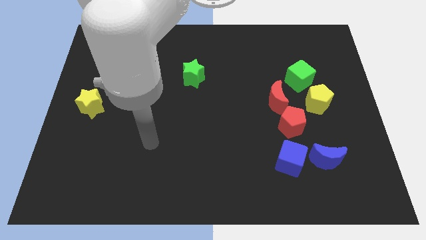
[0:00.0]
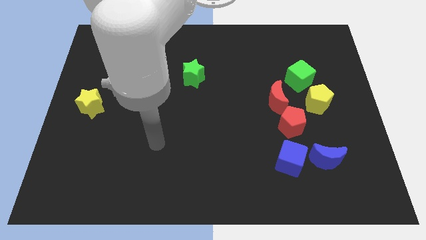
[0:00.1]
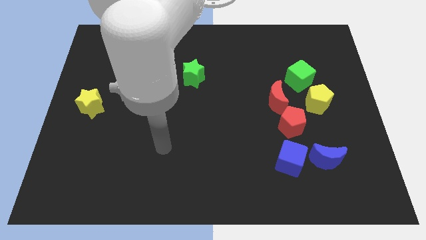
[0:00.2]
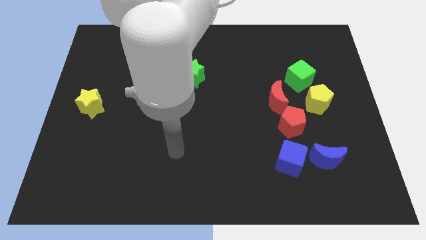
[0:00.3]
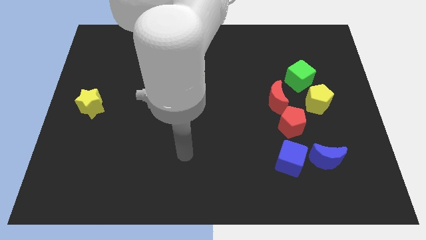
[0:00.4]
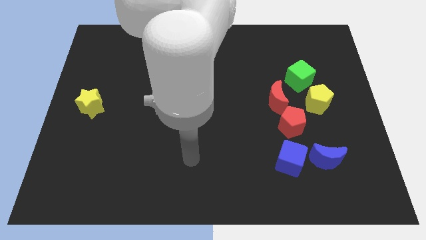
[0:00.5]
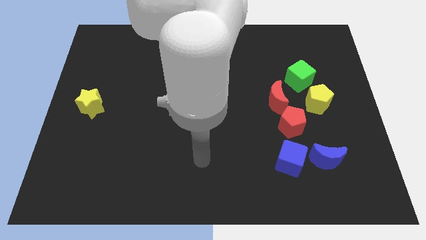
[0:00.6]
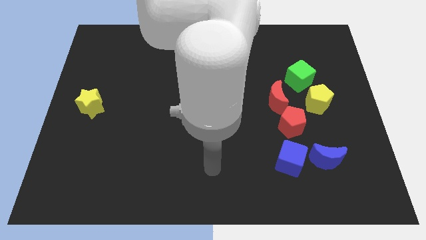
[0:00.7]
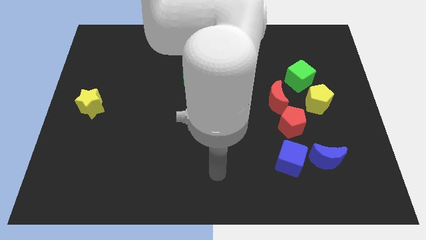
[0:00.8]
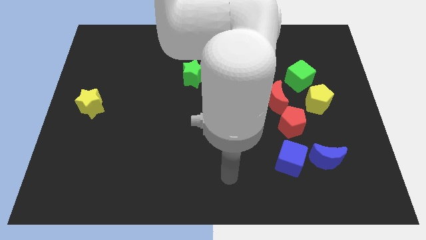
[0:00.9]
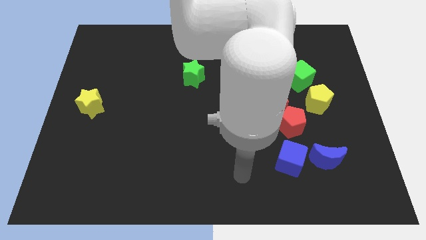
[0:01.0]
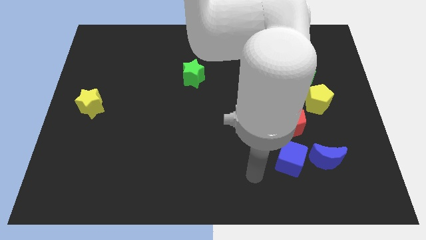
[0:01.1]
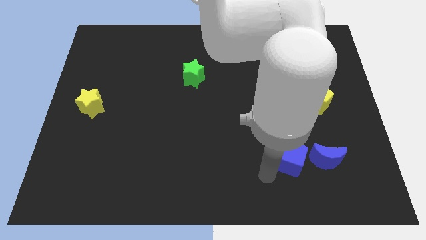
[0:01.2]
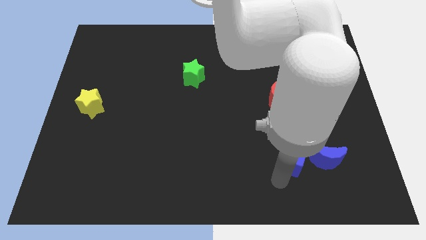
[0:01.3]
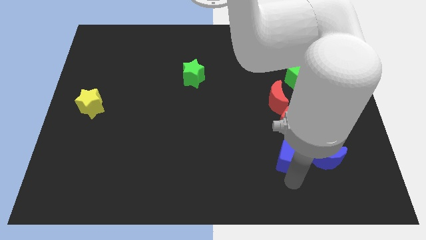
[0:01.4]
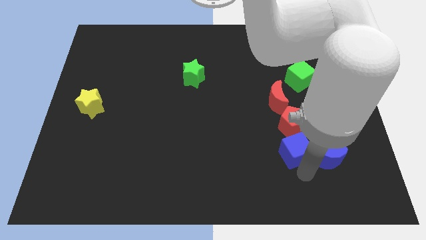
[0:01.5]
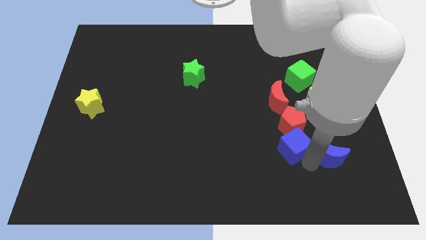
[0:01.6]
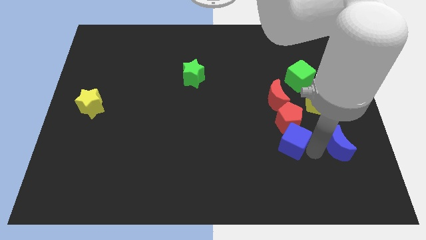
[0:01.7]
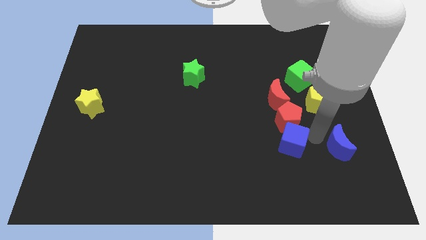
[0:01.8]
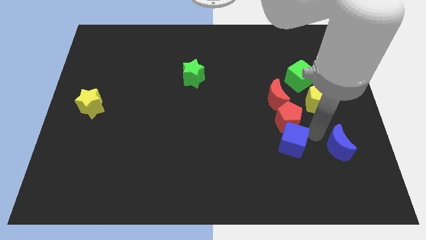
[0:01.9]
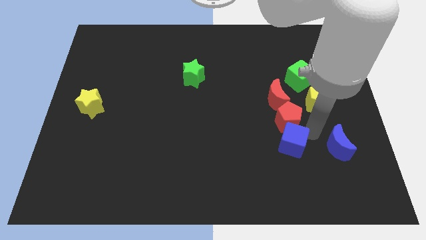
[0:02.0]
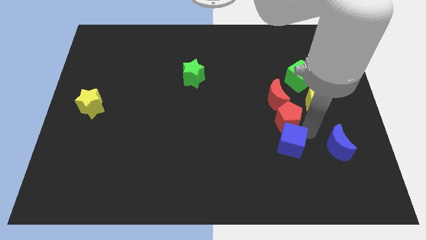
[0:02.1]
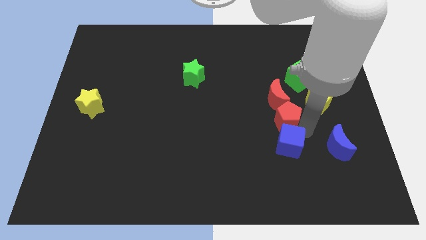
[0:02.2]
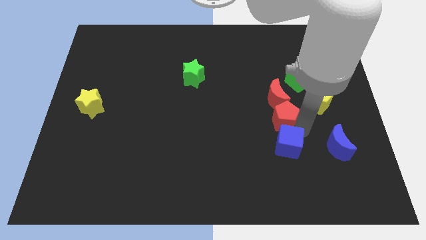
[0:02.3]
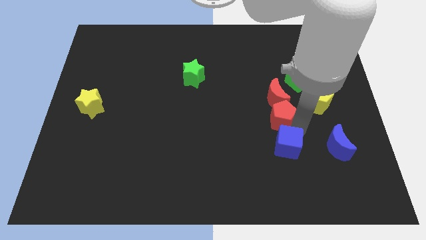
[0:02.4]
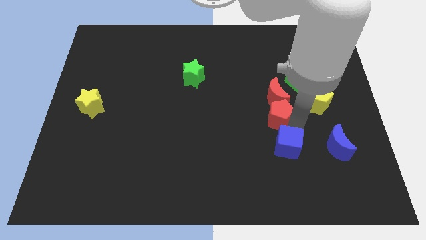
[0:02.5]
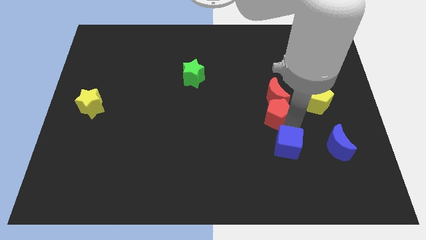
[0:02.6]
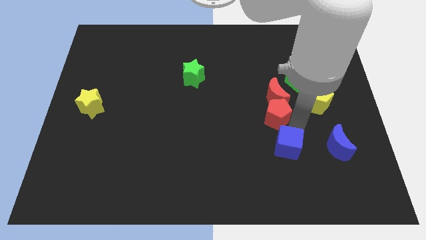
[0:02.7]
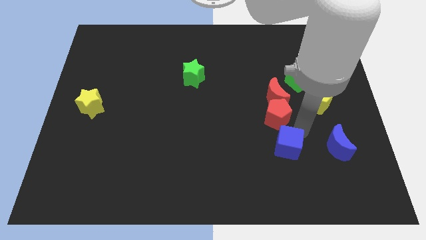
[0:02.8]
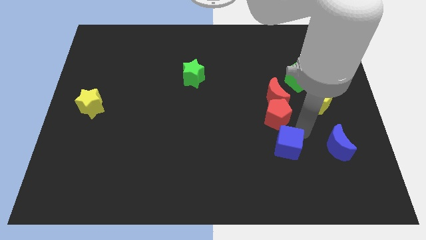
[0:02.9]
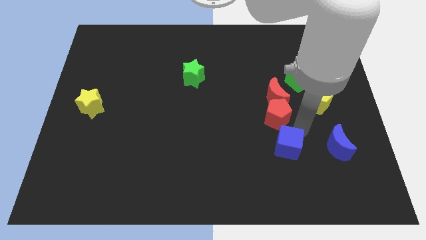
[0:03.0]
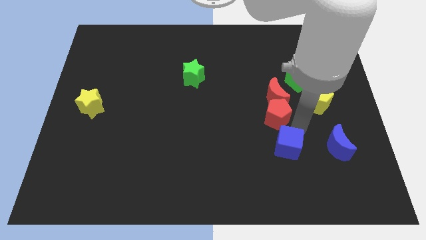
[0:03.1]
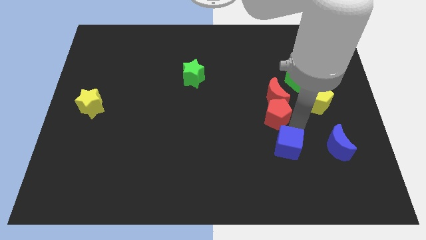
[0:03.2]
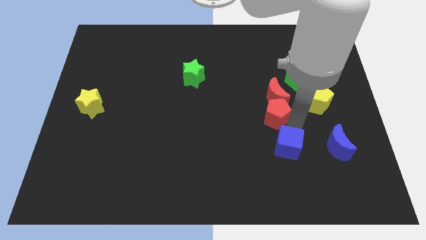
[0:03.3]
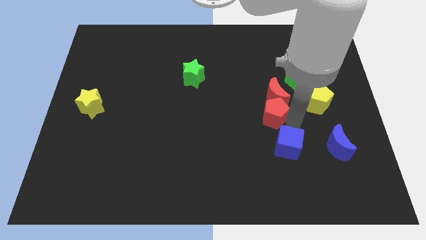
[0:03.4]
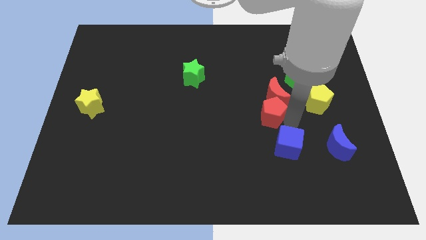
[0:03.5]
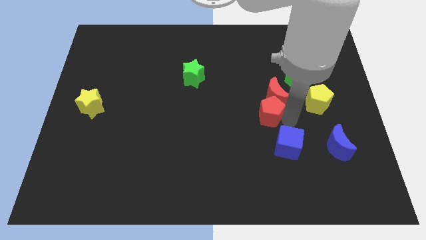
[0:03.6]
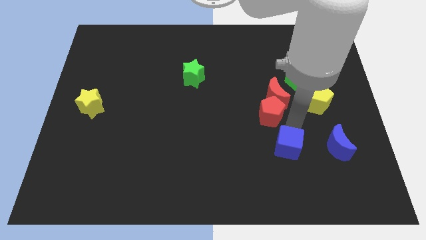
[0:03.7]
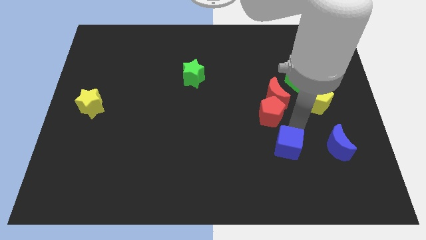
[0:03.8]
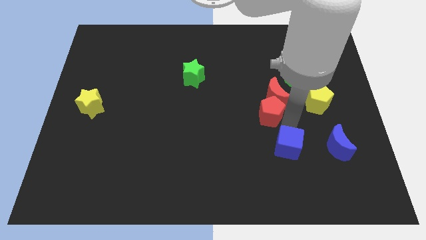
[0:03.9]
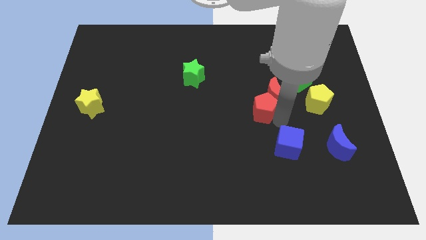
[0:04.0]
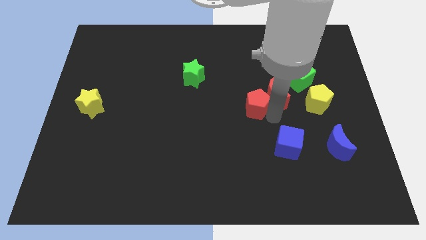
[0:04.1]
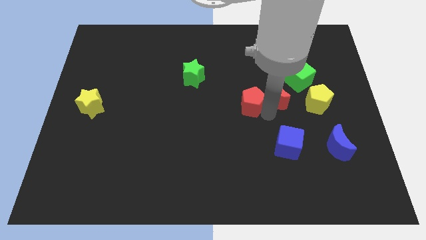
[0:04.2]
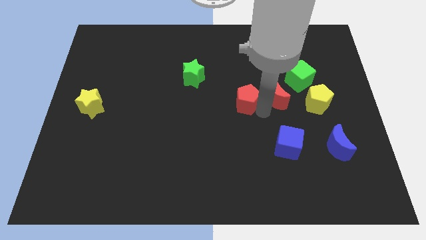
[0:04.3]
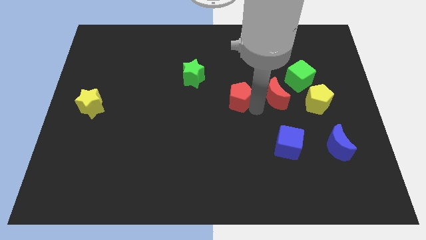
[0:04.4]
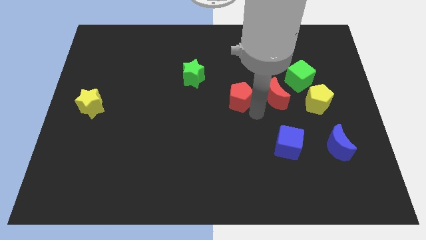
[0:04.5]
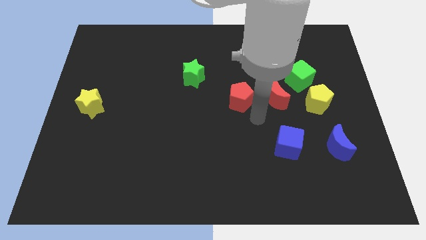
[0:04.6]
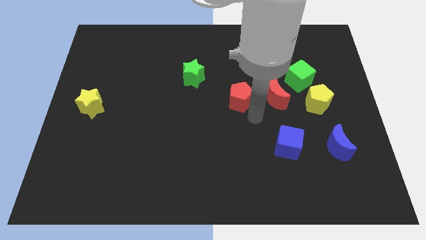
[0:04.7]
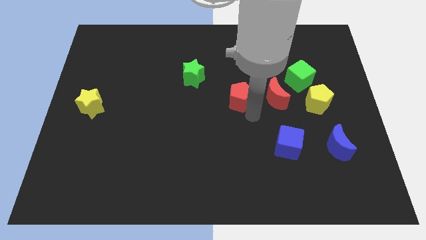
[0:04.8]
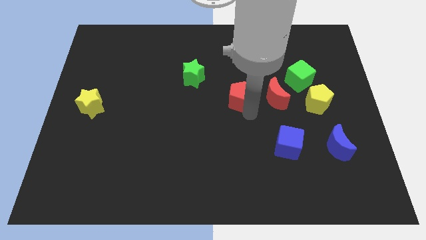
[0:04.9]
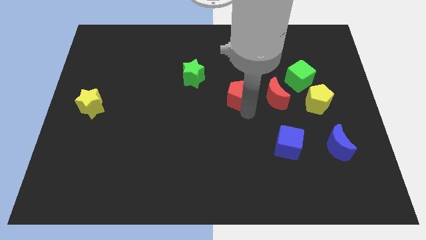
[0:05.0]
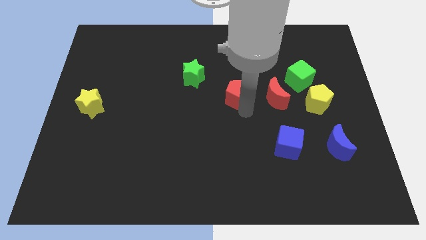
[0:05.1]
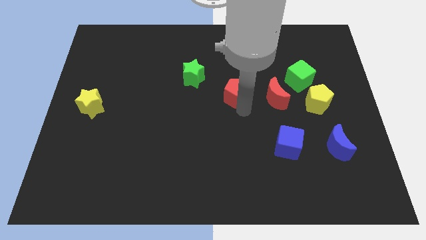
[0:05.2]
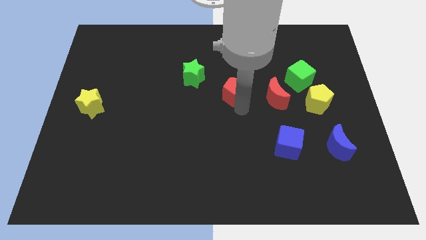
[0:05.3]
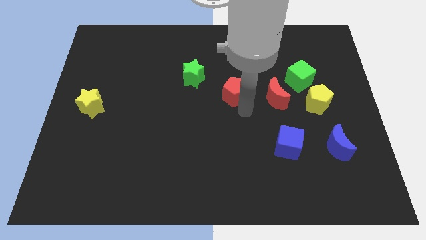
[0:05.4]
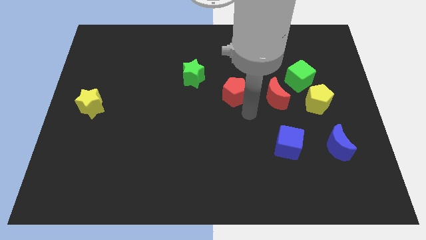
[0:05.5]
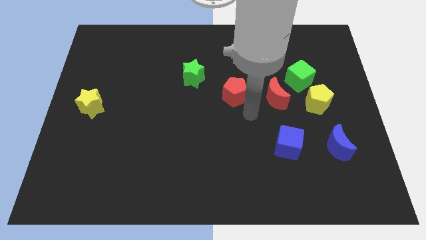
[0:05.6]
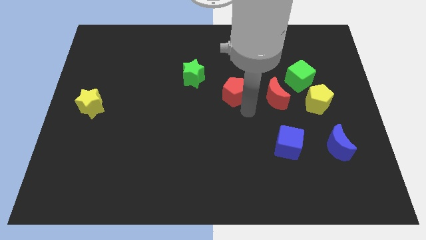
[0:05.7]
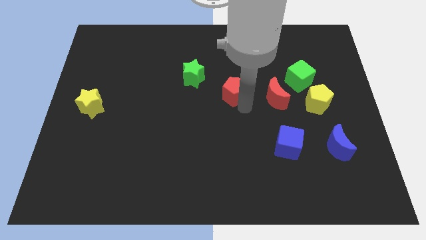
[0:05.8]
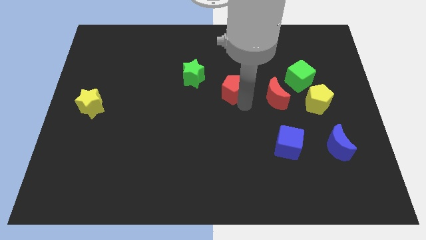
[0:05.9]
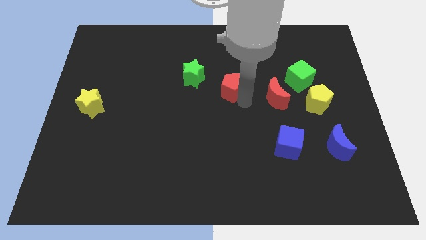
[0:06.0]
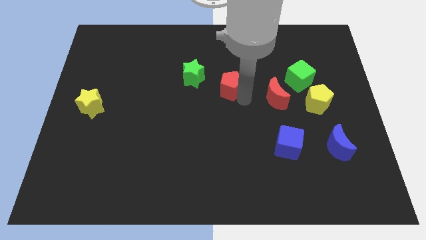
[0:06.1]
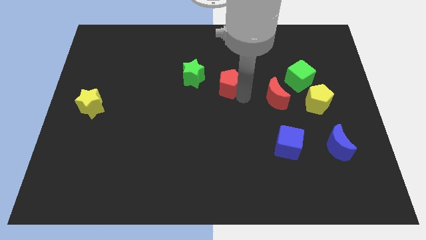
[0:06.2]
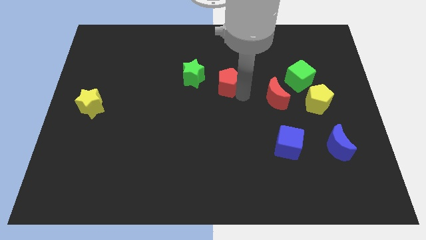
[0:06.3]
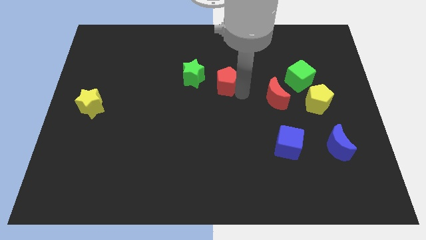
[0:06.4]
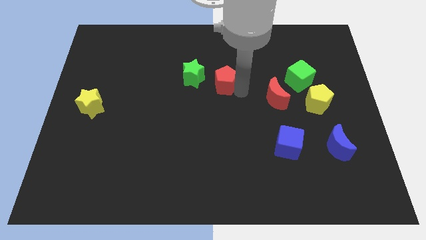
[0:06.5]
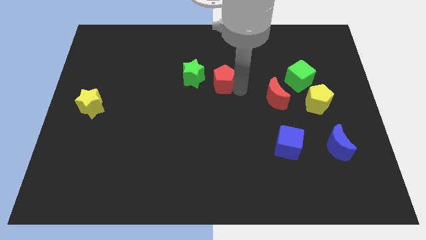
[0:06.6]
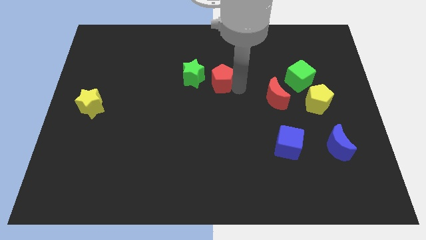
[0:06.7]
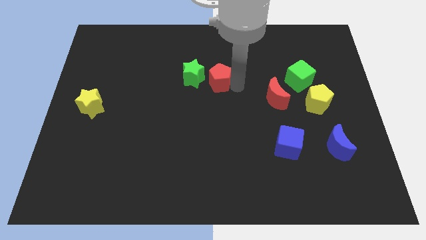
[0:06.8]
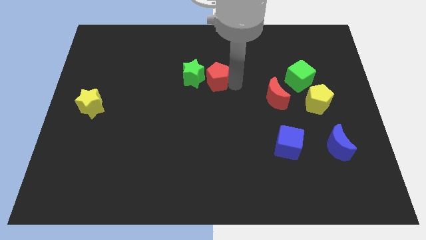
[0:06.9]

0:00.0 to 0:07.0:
move the red pentagon next to the green star

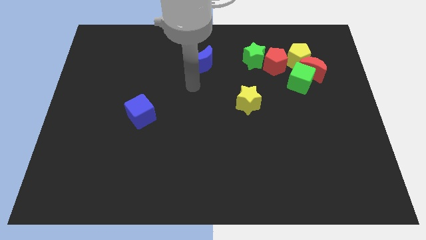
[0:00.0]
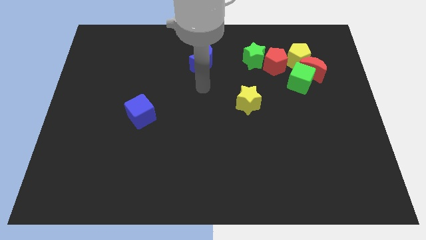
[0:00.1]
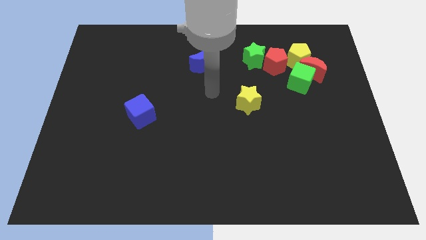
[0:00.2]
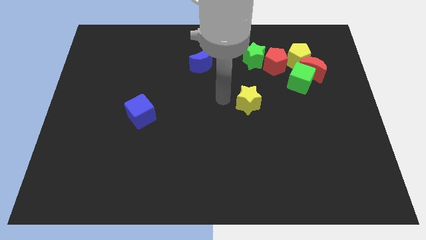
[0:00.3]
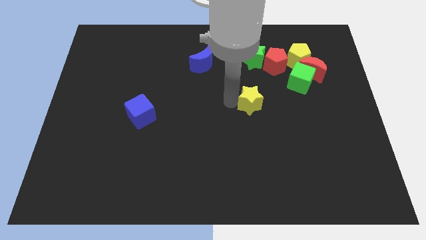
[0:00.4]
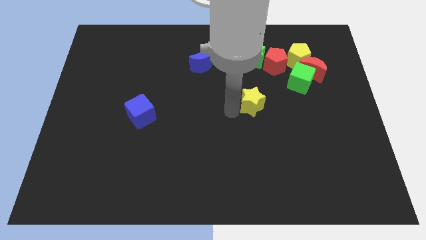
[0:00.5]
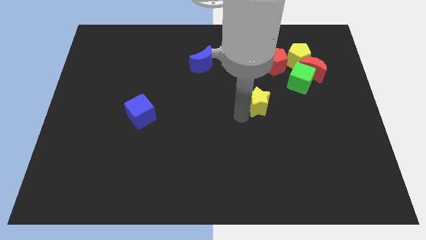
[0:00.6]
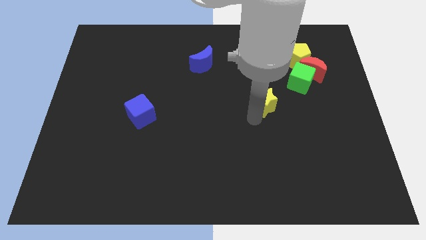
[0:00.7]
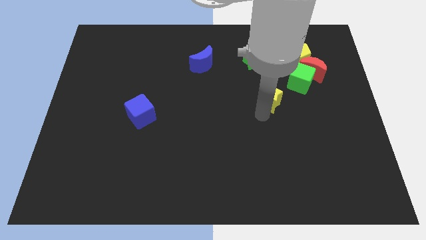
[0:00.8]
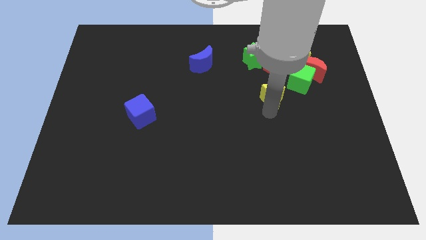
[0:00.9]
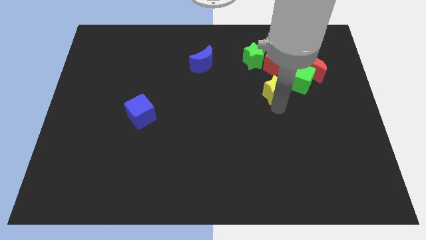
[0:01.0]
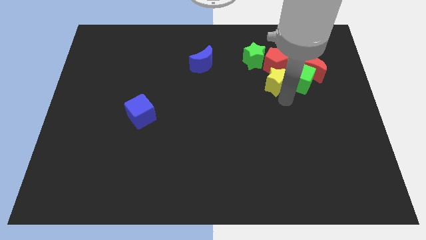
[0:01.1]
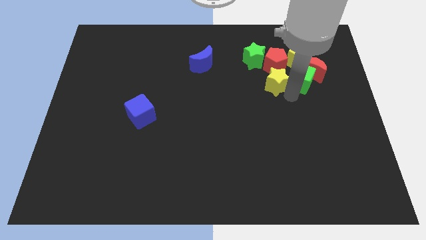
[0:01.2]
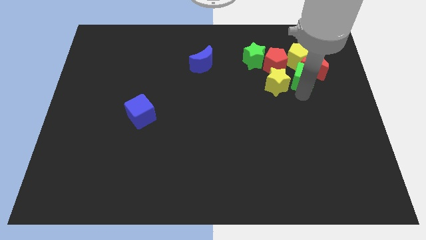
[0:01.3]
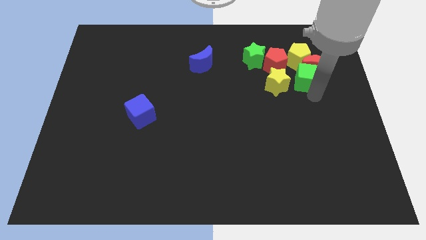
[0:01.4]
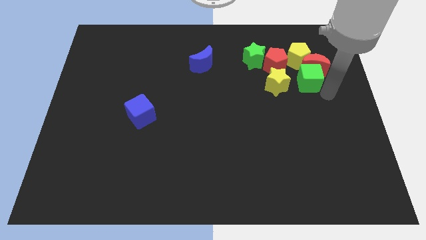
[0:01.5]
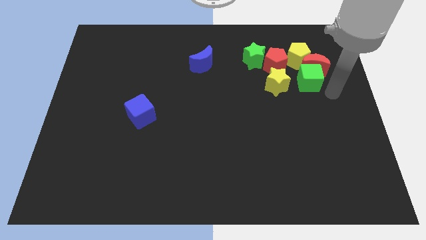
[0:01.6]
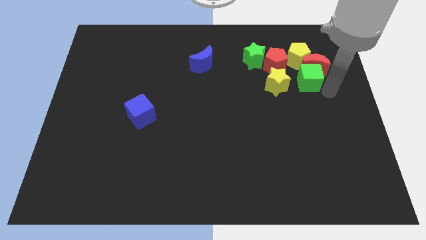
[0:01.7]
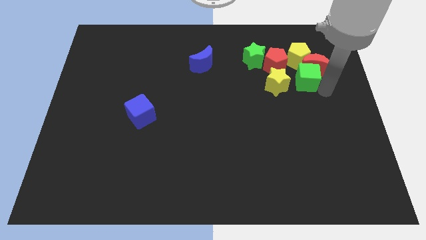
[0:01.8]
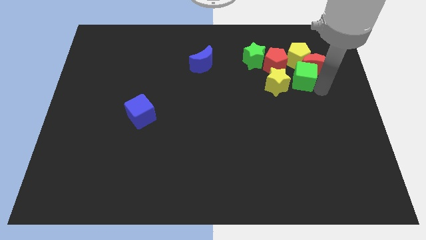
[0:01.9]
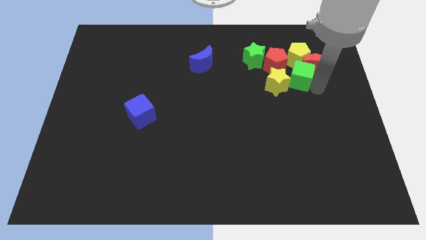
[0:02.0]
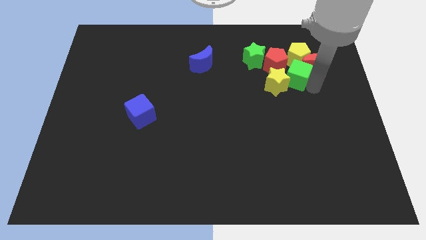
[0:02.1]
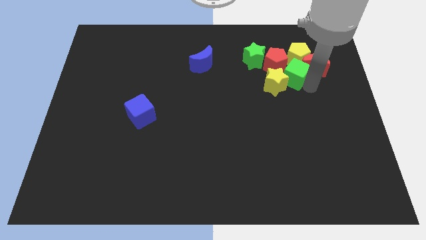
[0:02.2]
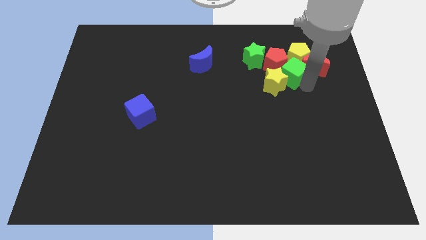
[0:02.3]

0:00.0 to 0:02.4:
put the green cube close to the red pentagon
